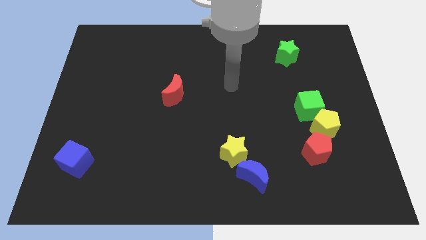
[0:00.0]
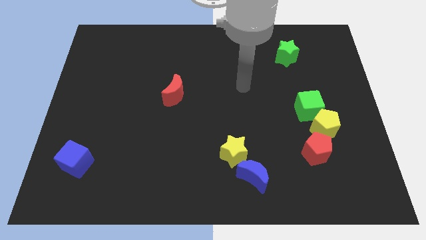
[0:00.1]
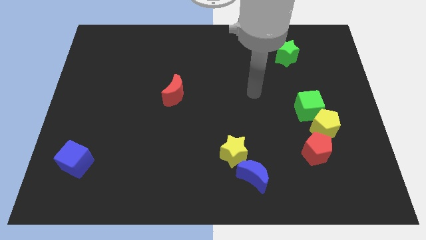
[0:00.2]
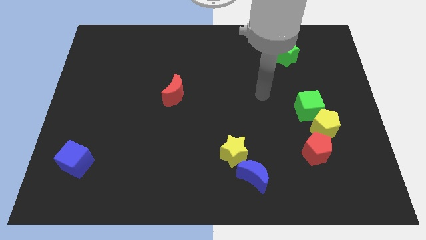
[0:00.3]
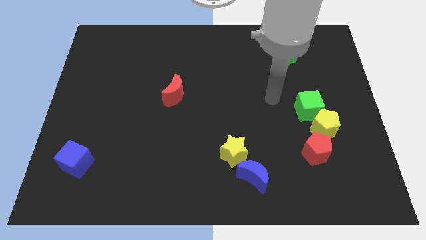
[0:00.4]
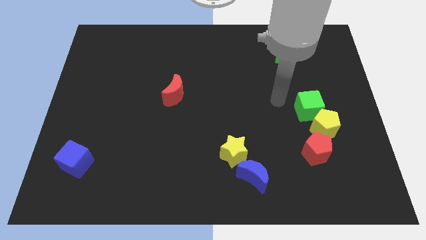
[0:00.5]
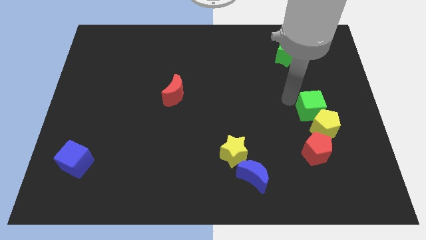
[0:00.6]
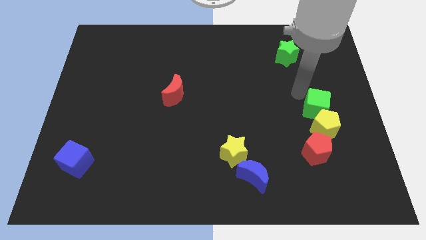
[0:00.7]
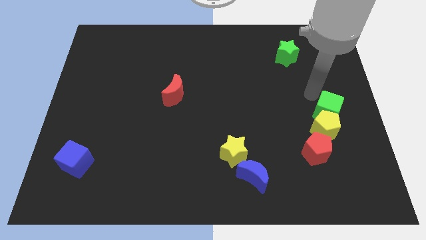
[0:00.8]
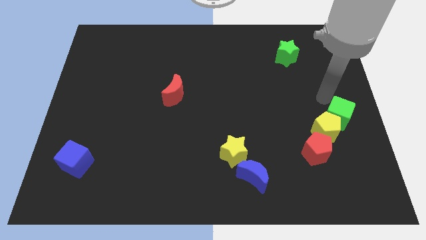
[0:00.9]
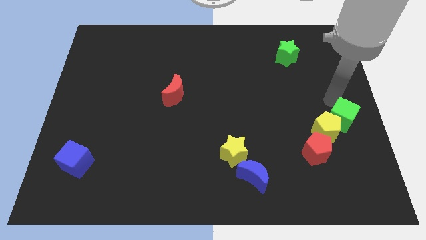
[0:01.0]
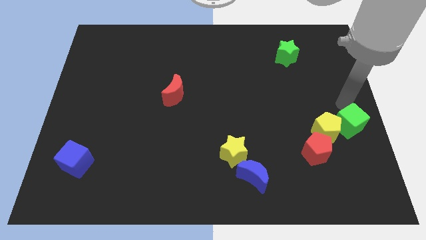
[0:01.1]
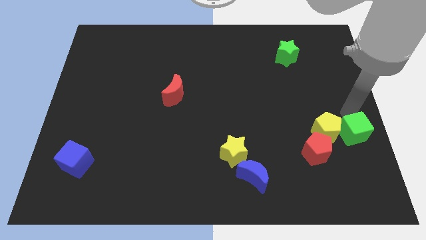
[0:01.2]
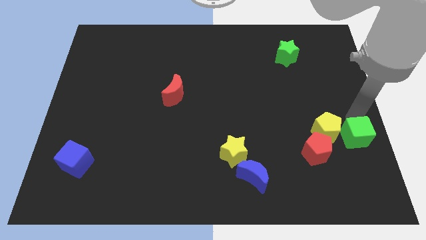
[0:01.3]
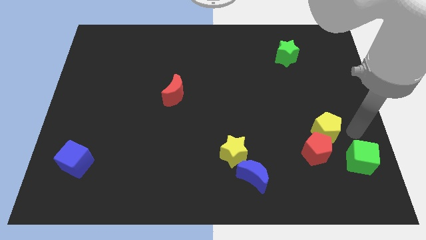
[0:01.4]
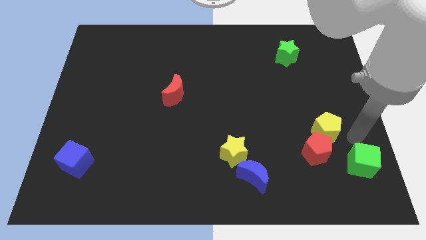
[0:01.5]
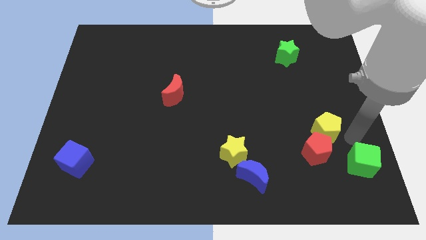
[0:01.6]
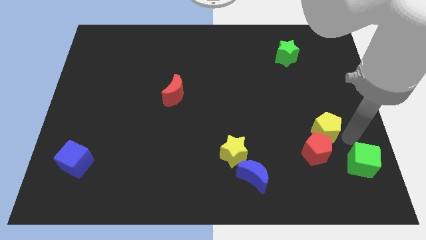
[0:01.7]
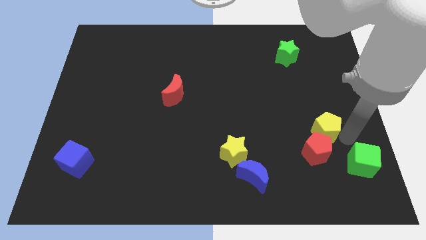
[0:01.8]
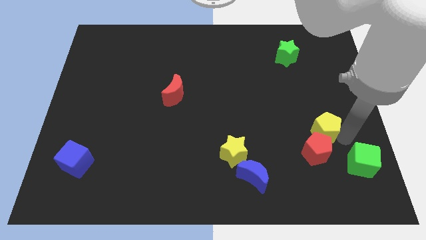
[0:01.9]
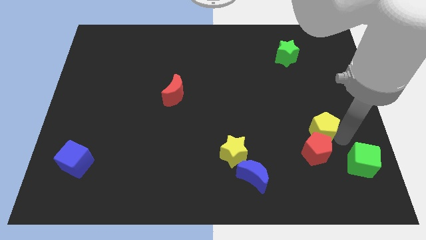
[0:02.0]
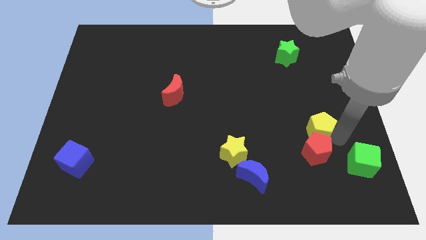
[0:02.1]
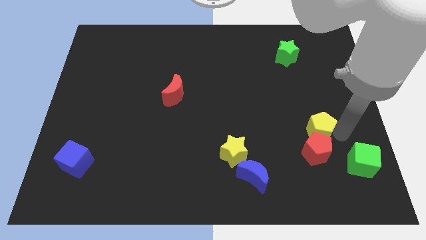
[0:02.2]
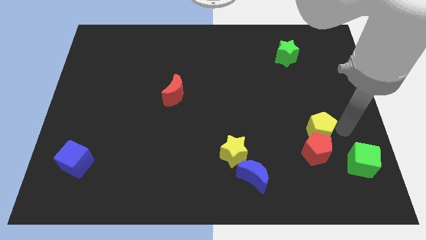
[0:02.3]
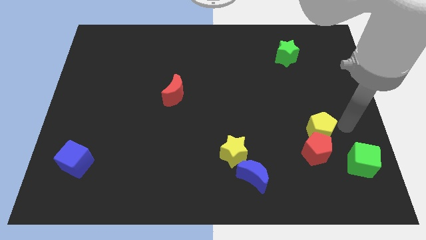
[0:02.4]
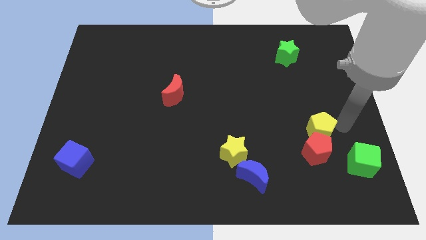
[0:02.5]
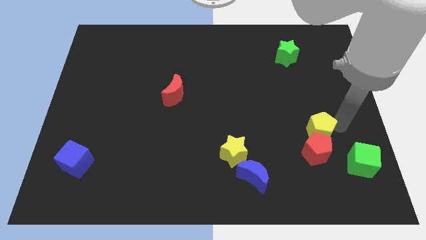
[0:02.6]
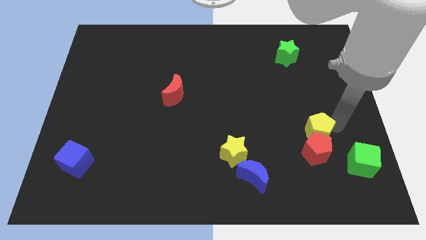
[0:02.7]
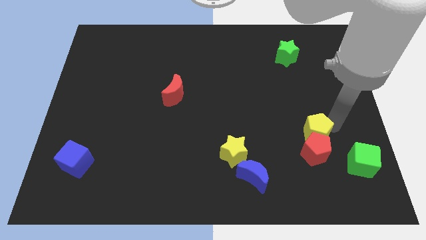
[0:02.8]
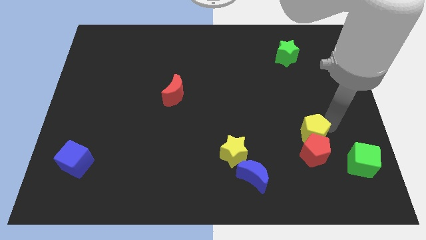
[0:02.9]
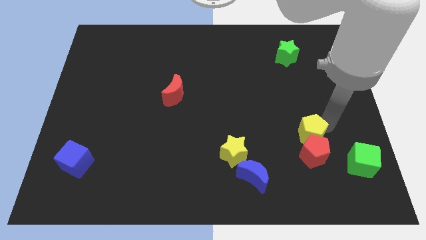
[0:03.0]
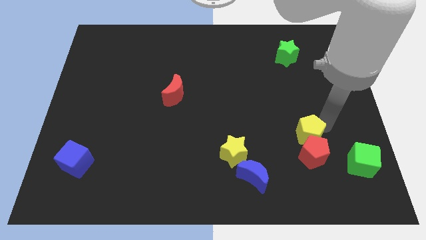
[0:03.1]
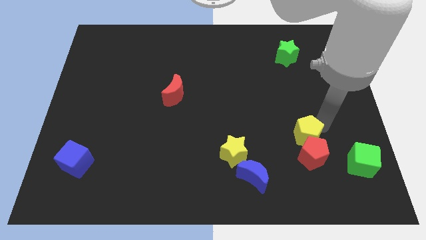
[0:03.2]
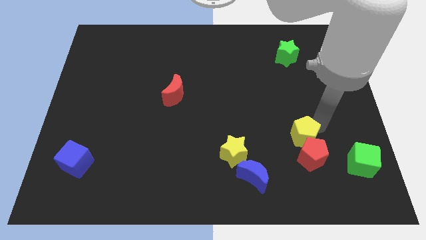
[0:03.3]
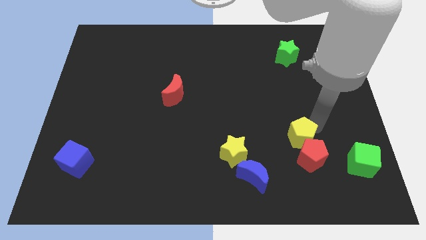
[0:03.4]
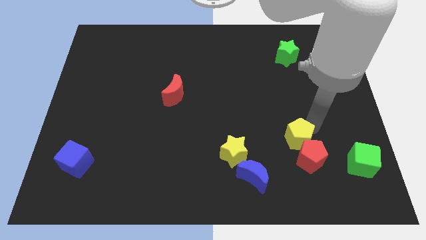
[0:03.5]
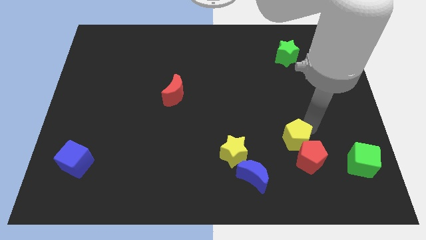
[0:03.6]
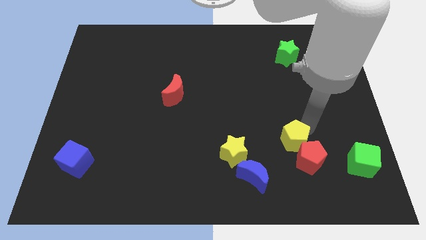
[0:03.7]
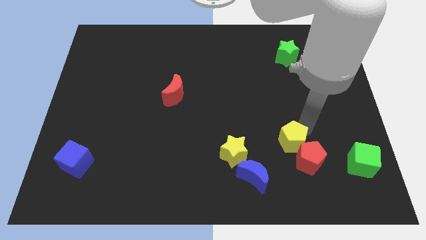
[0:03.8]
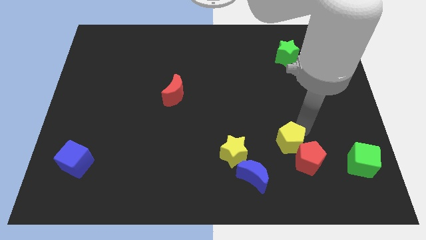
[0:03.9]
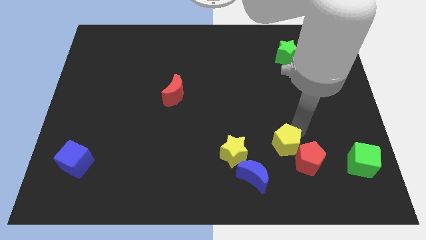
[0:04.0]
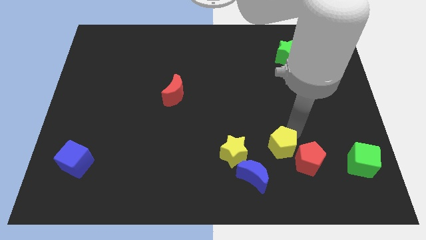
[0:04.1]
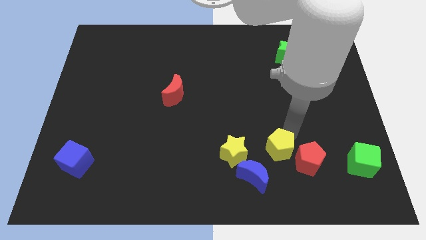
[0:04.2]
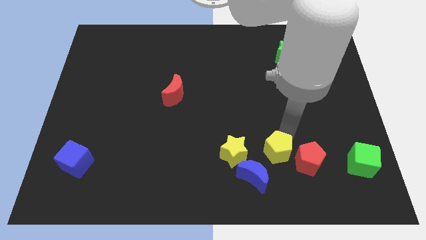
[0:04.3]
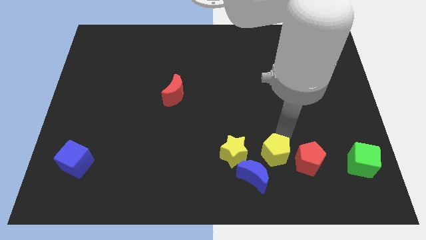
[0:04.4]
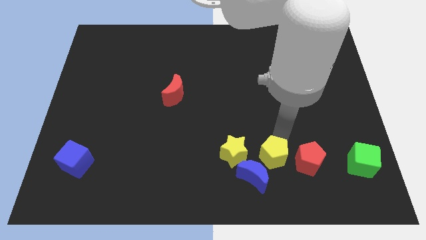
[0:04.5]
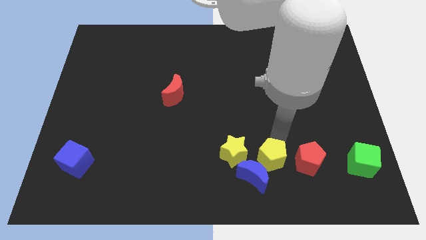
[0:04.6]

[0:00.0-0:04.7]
push the yellow pentagon next to the blue moon

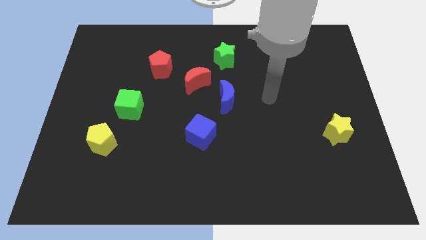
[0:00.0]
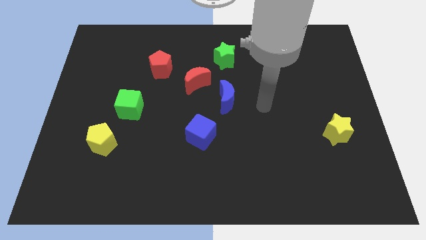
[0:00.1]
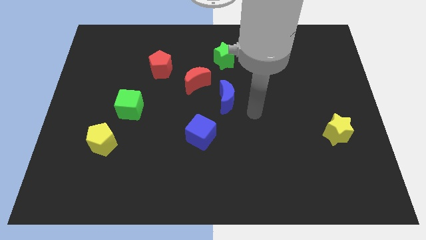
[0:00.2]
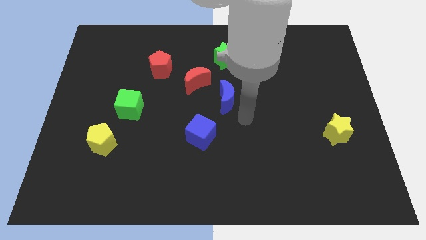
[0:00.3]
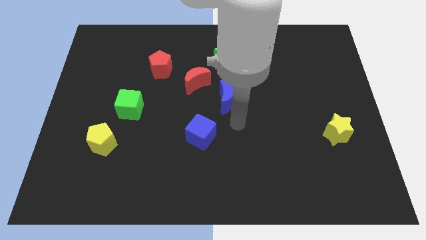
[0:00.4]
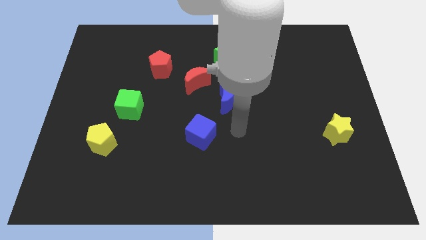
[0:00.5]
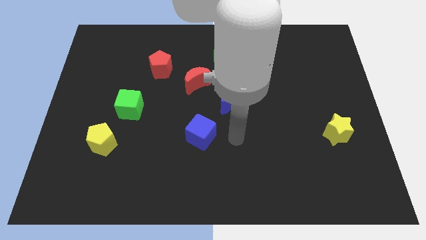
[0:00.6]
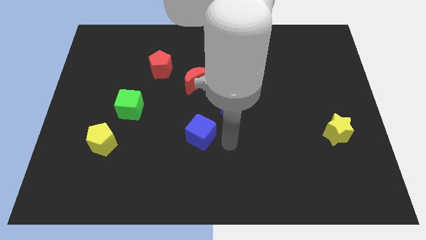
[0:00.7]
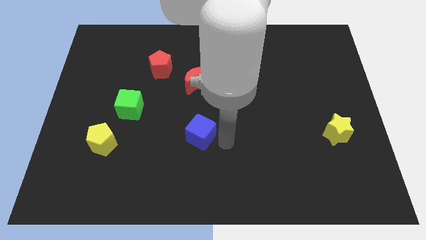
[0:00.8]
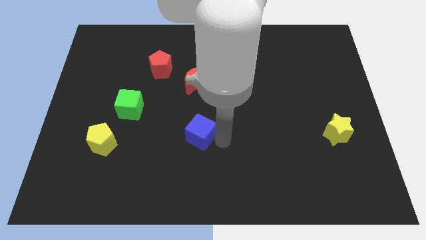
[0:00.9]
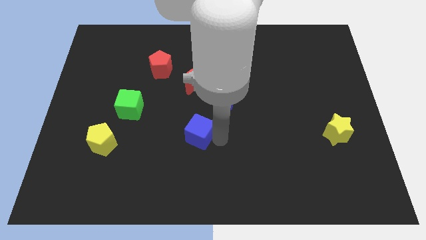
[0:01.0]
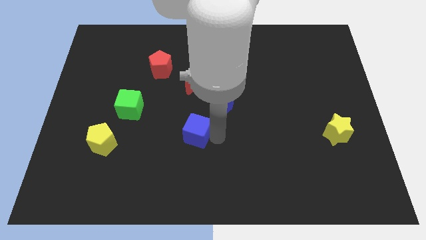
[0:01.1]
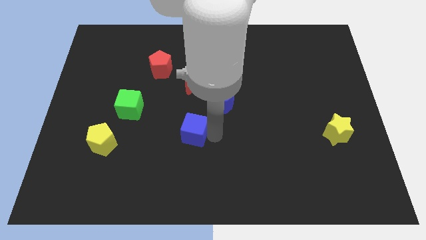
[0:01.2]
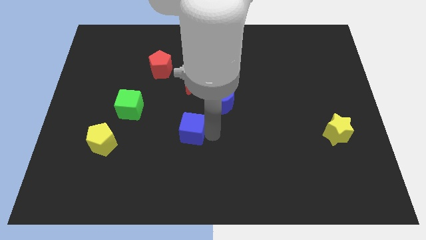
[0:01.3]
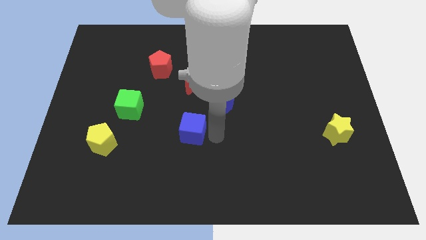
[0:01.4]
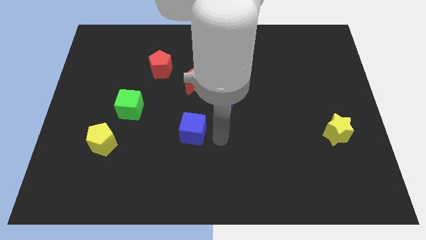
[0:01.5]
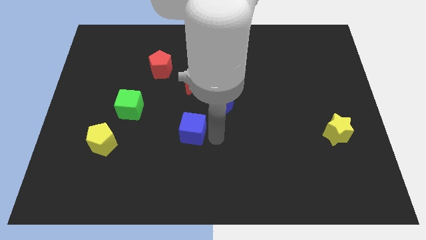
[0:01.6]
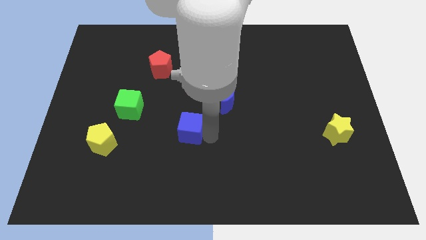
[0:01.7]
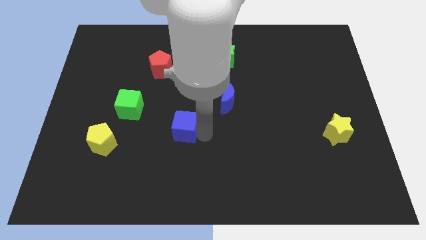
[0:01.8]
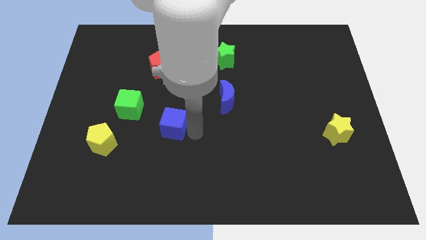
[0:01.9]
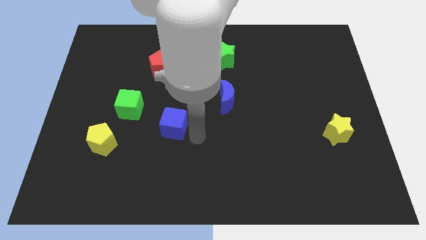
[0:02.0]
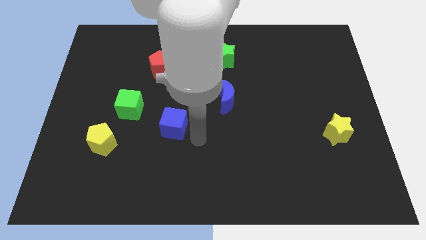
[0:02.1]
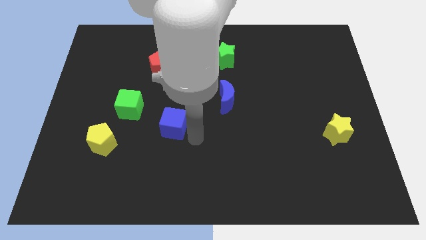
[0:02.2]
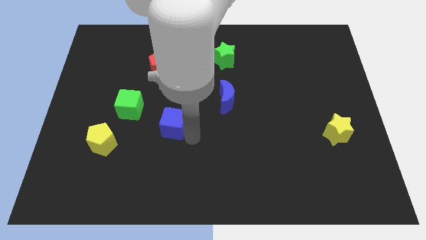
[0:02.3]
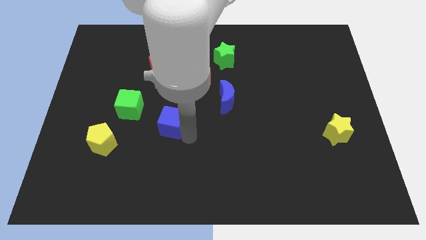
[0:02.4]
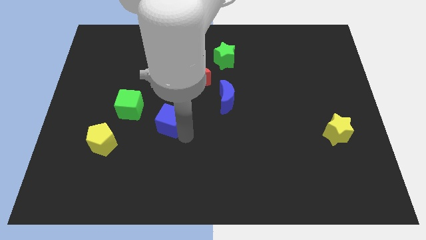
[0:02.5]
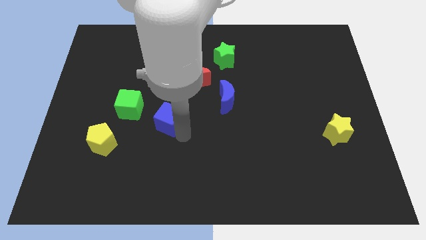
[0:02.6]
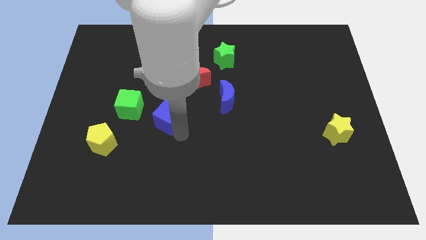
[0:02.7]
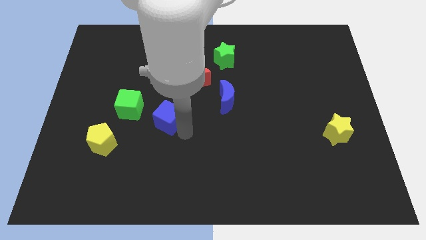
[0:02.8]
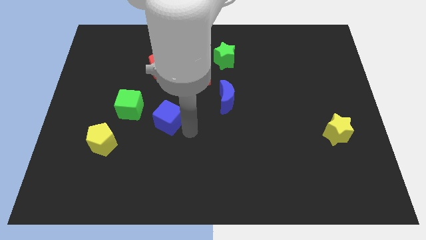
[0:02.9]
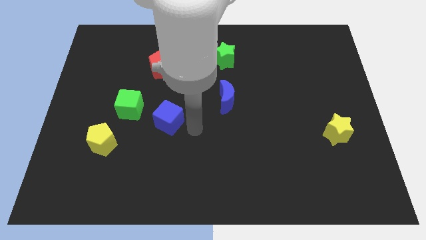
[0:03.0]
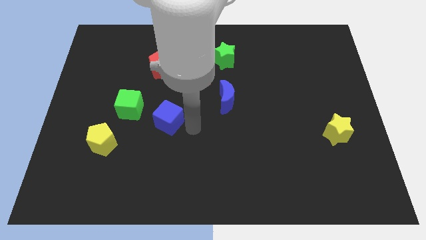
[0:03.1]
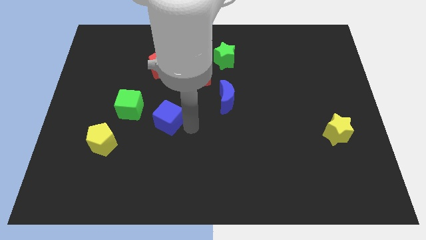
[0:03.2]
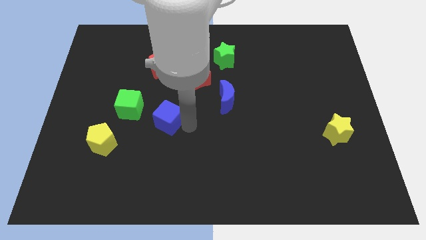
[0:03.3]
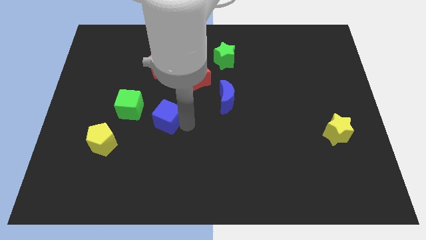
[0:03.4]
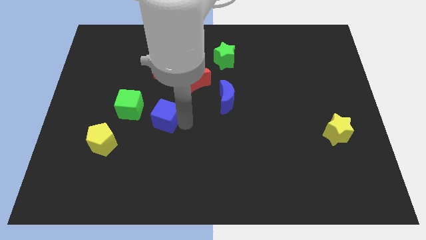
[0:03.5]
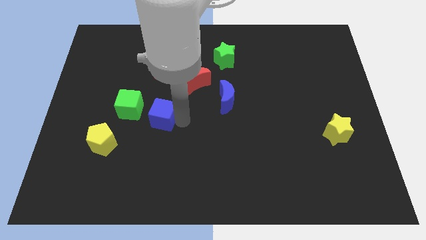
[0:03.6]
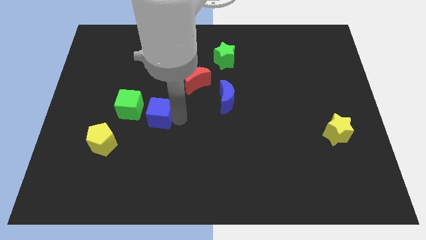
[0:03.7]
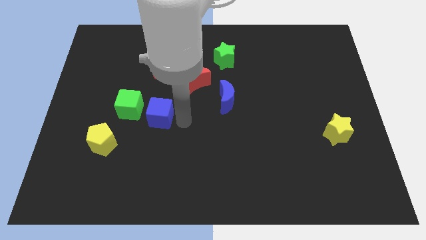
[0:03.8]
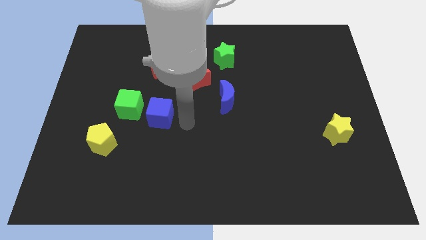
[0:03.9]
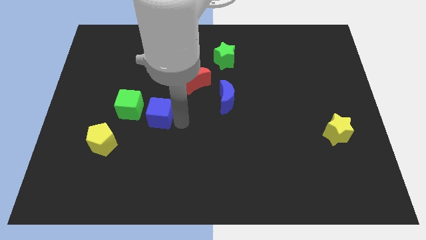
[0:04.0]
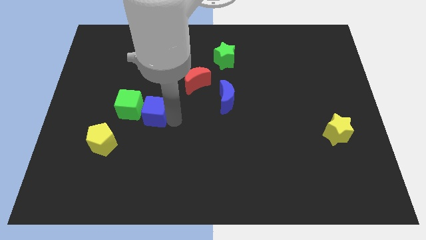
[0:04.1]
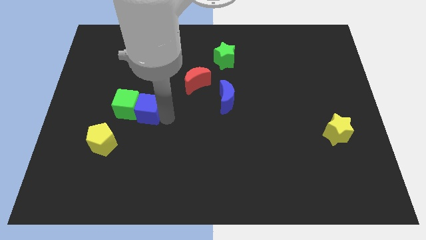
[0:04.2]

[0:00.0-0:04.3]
move the blue cube towards the green cube
